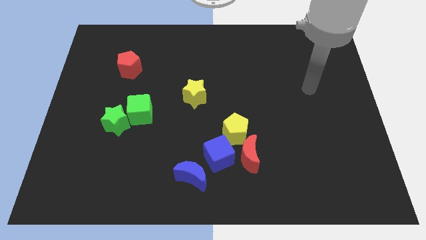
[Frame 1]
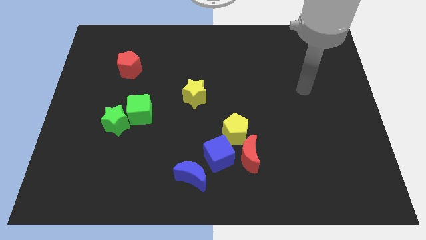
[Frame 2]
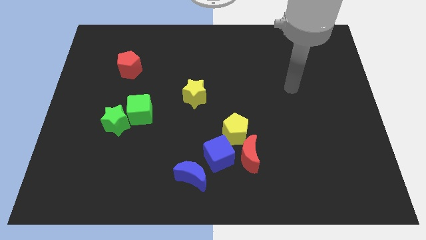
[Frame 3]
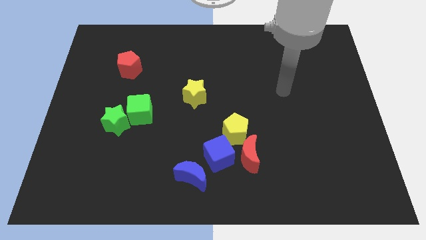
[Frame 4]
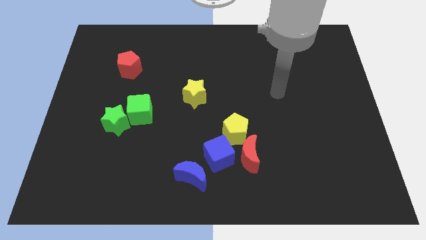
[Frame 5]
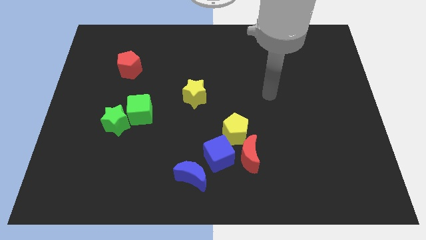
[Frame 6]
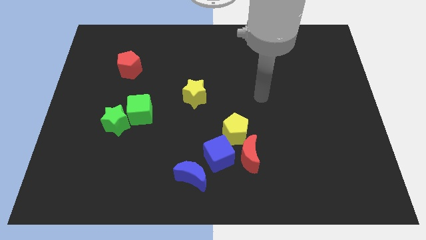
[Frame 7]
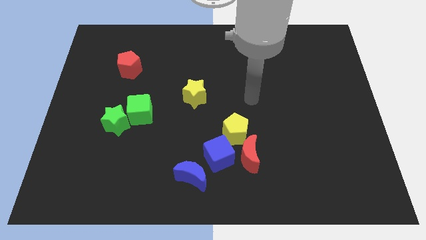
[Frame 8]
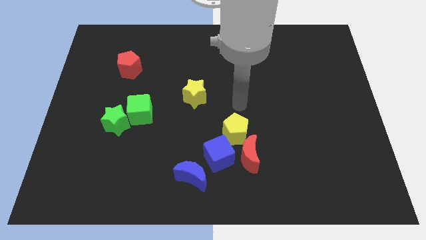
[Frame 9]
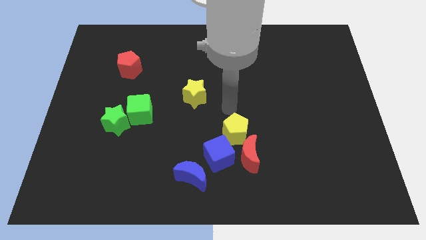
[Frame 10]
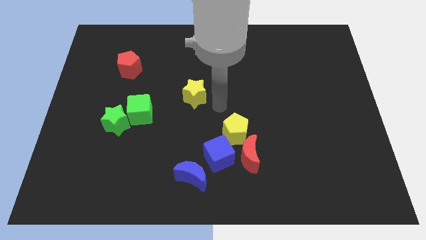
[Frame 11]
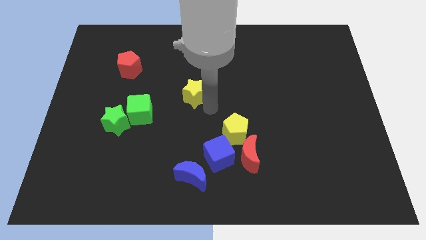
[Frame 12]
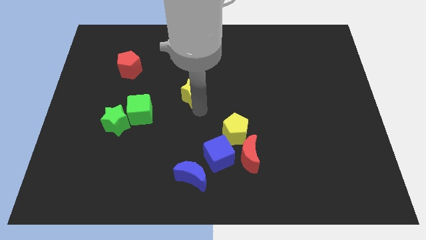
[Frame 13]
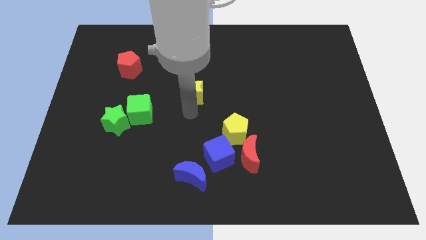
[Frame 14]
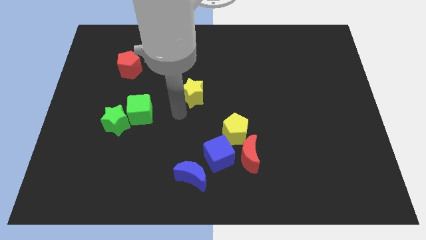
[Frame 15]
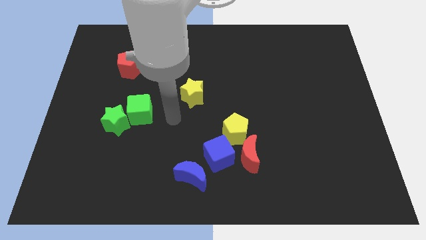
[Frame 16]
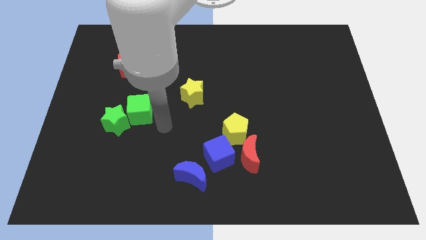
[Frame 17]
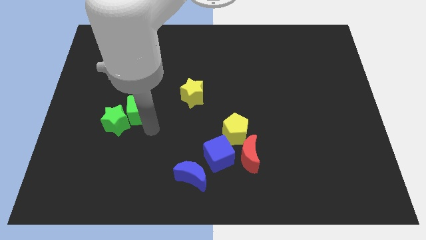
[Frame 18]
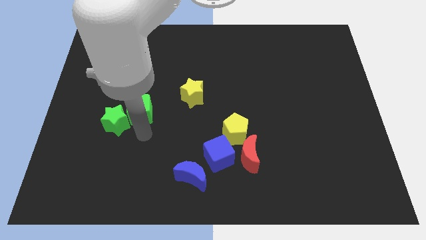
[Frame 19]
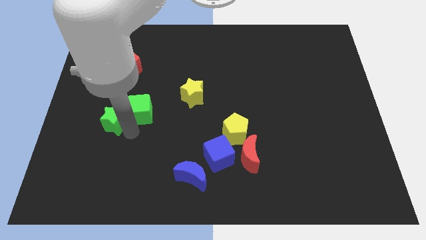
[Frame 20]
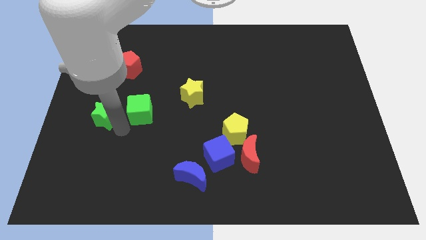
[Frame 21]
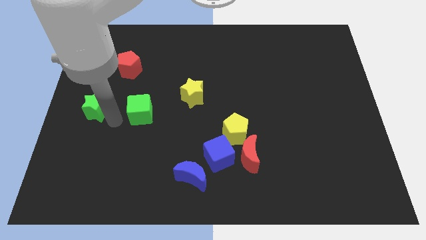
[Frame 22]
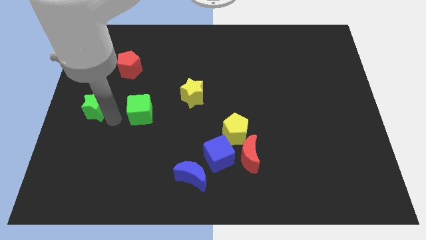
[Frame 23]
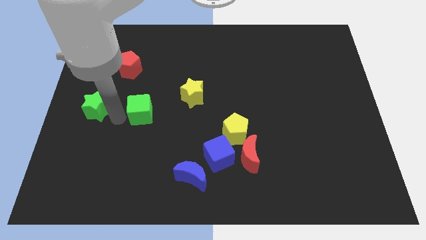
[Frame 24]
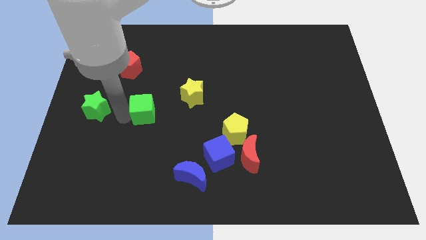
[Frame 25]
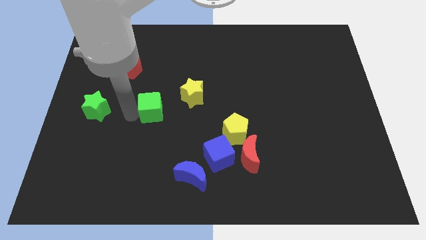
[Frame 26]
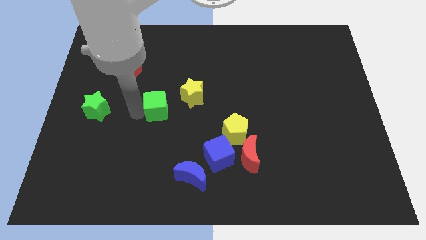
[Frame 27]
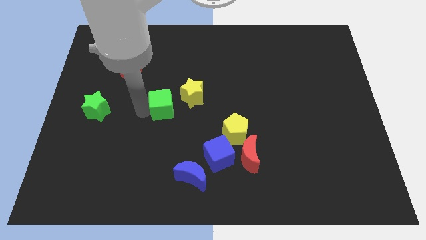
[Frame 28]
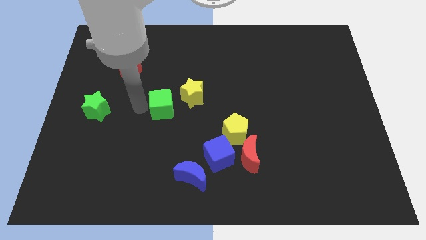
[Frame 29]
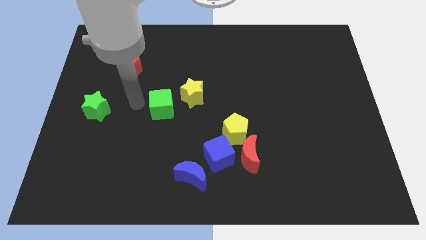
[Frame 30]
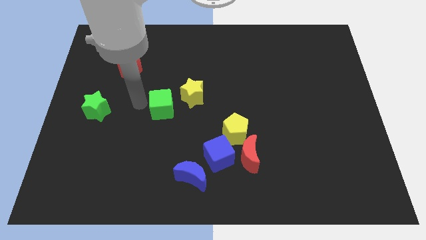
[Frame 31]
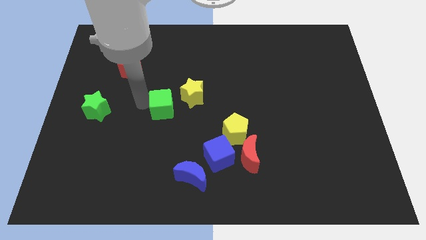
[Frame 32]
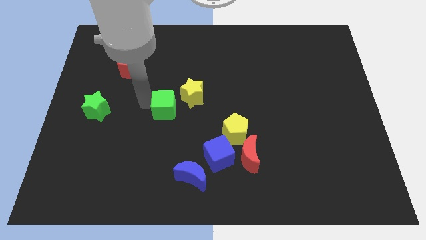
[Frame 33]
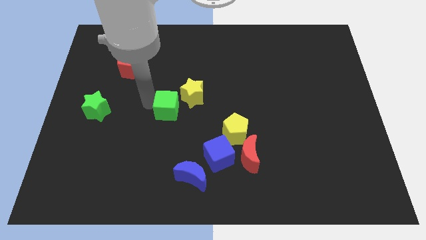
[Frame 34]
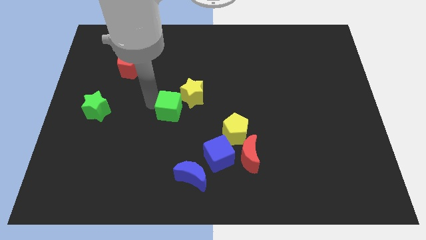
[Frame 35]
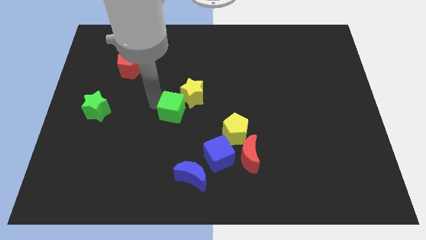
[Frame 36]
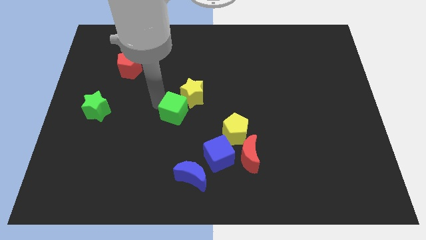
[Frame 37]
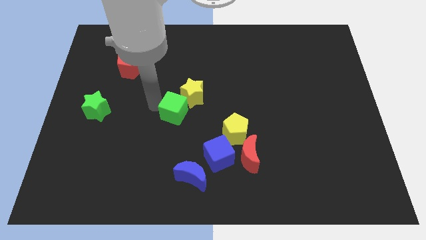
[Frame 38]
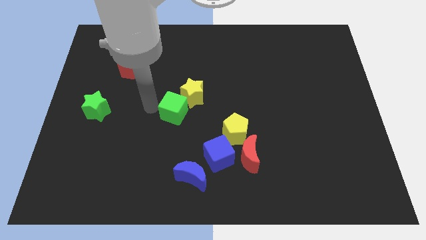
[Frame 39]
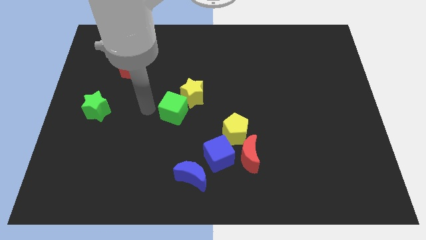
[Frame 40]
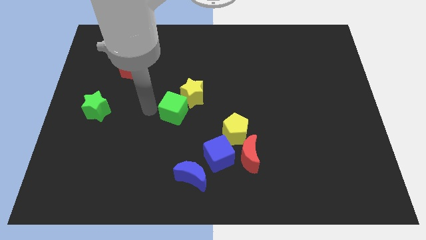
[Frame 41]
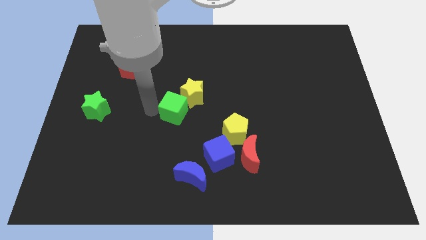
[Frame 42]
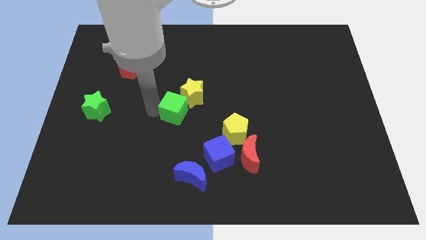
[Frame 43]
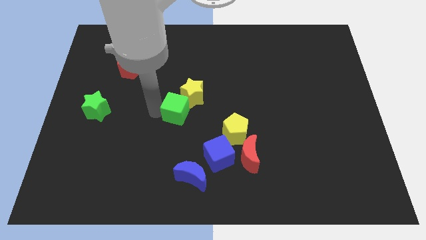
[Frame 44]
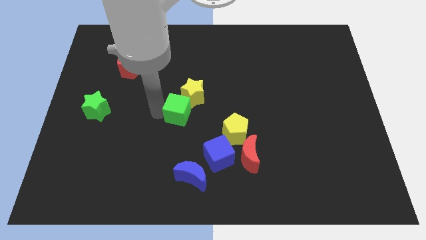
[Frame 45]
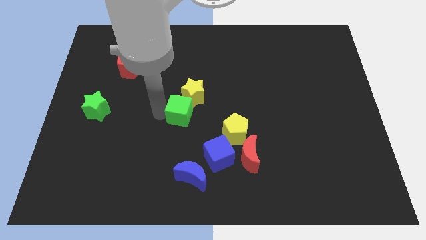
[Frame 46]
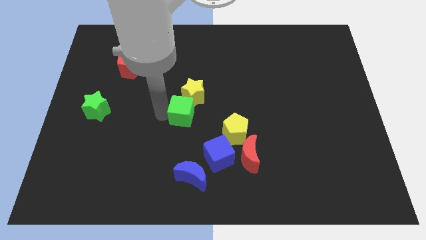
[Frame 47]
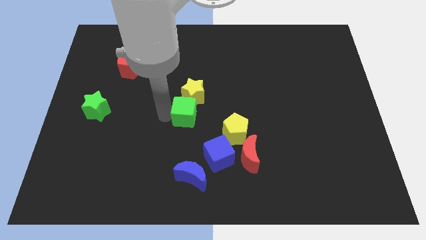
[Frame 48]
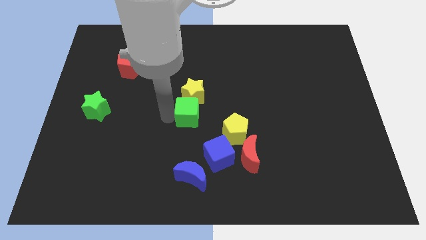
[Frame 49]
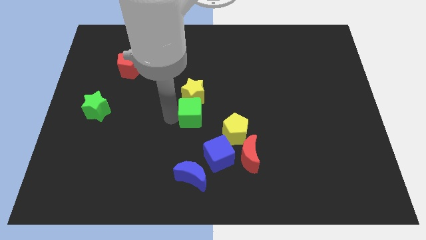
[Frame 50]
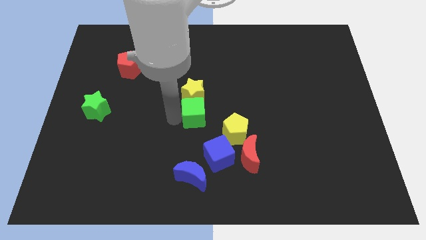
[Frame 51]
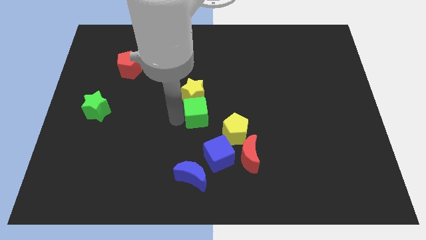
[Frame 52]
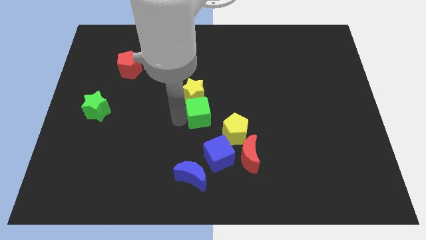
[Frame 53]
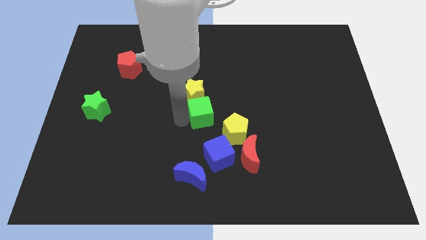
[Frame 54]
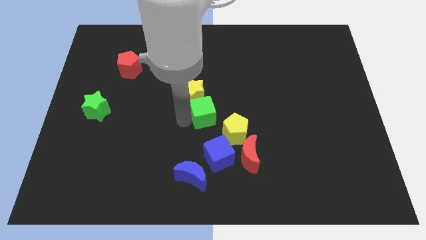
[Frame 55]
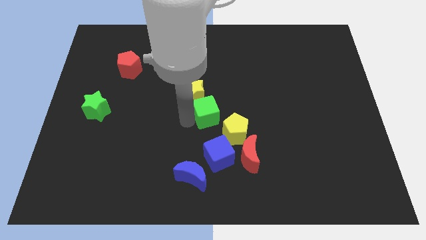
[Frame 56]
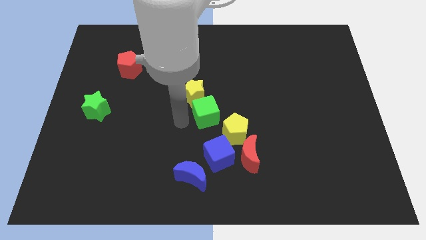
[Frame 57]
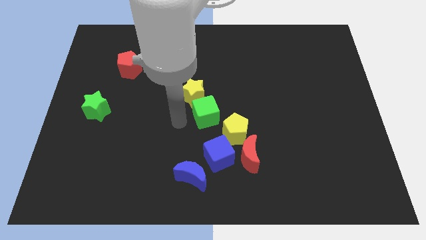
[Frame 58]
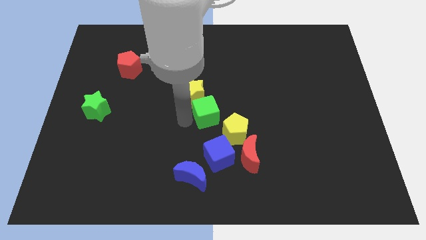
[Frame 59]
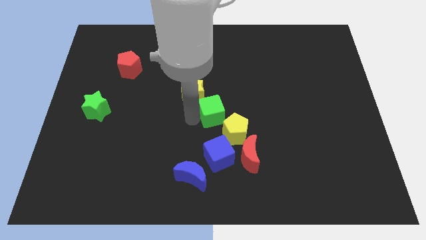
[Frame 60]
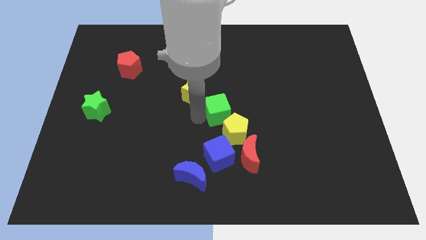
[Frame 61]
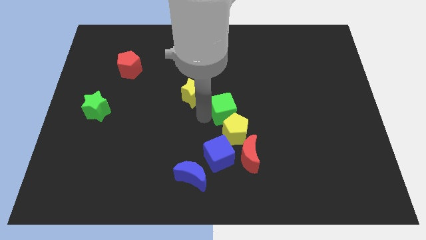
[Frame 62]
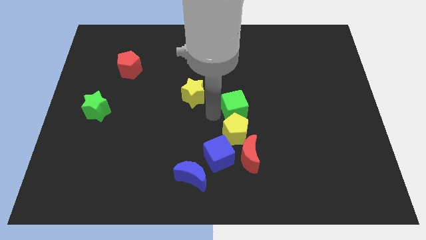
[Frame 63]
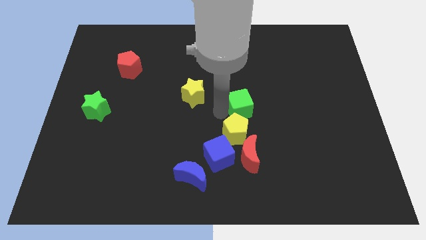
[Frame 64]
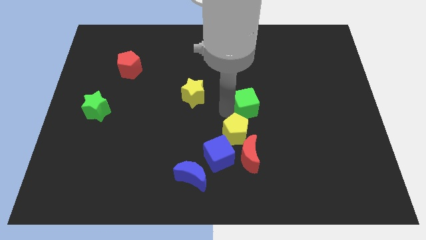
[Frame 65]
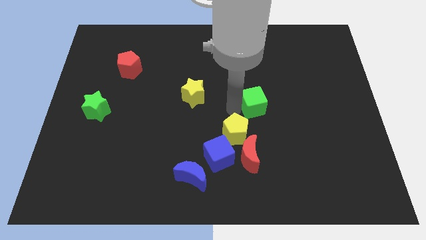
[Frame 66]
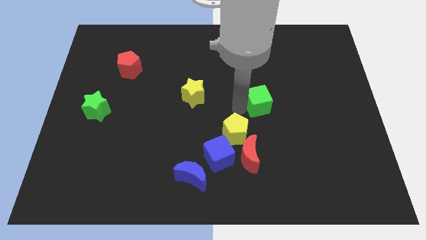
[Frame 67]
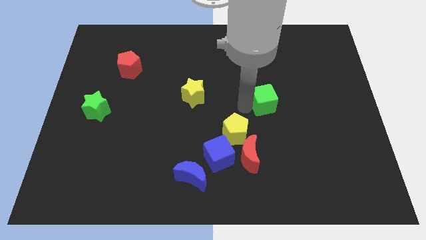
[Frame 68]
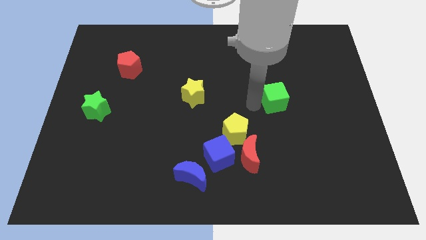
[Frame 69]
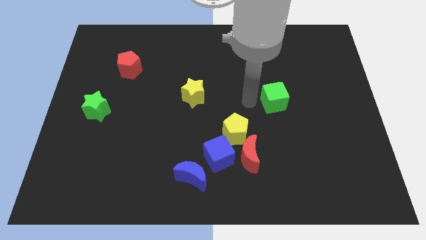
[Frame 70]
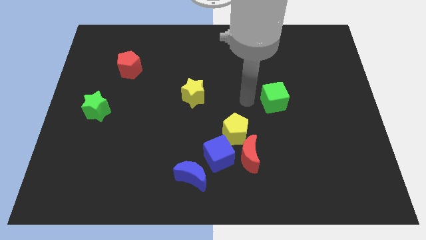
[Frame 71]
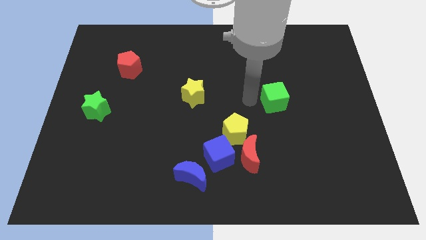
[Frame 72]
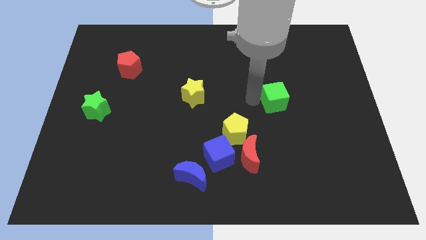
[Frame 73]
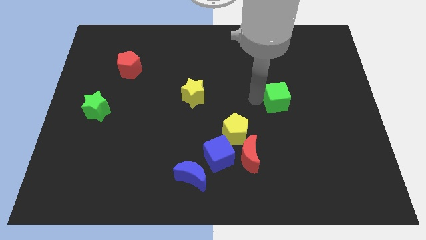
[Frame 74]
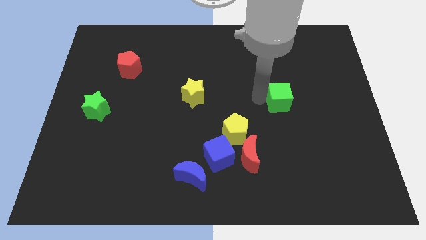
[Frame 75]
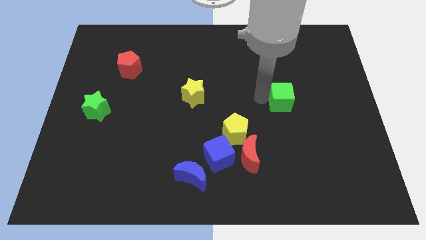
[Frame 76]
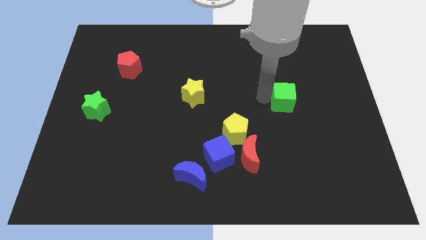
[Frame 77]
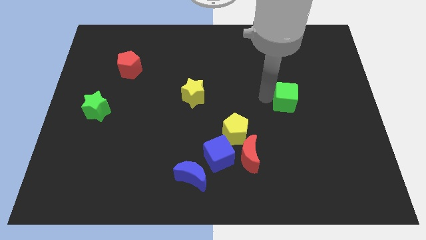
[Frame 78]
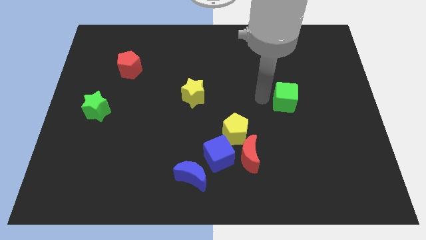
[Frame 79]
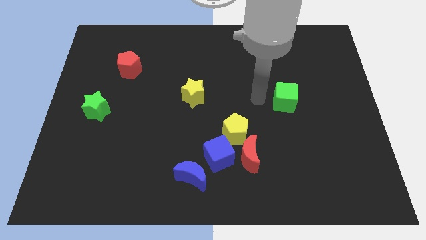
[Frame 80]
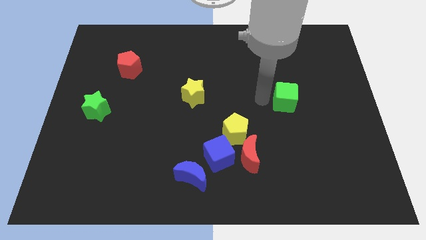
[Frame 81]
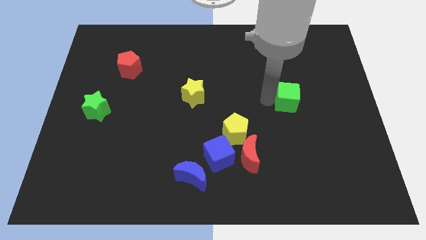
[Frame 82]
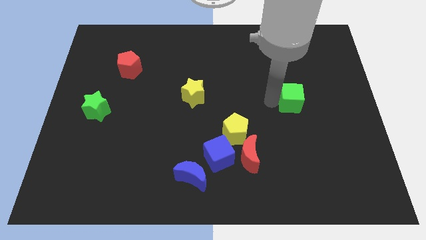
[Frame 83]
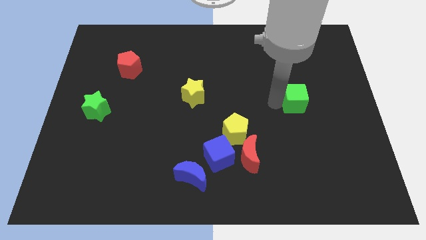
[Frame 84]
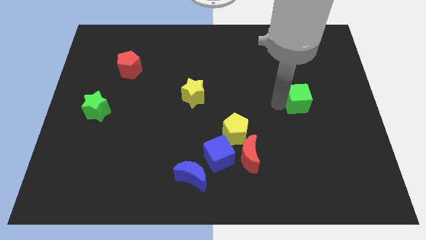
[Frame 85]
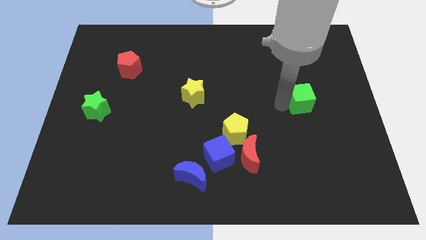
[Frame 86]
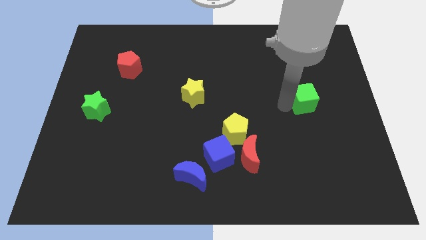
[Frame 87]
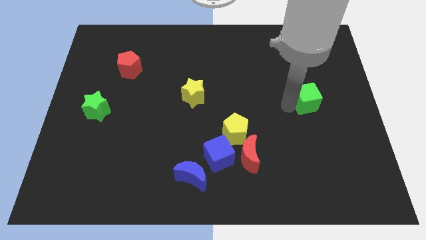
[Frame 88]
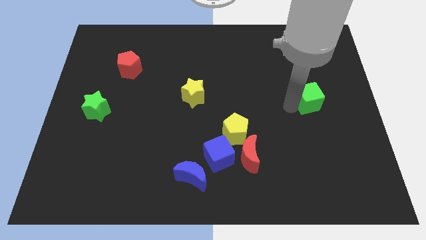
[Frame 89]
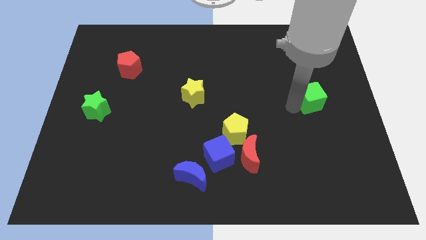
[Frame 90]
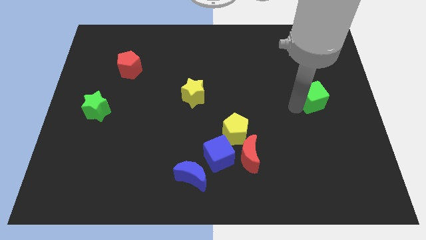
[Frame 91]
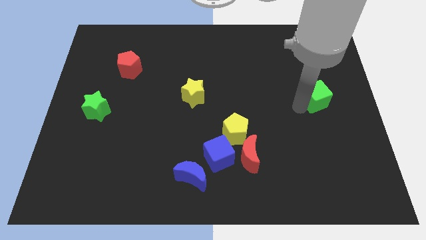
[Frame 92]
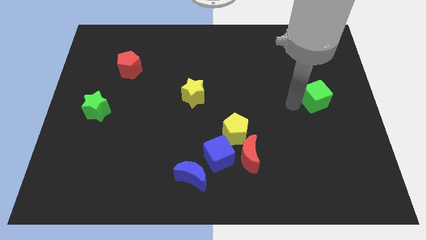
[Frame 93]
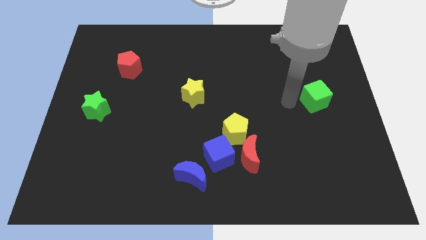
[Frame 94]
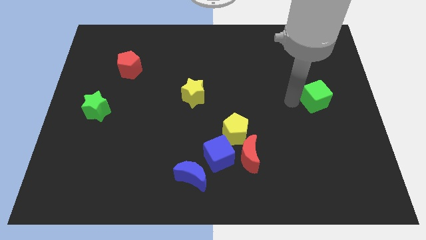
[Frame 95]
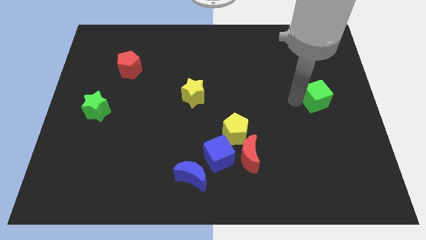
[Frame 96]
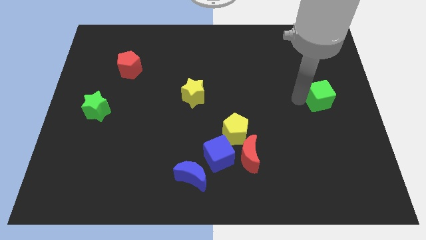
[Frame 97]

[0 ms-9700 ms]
put the green cube to the right side of the board
